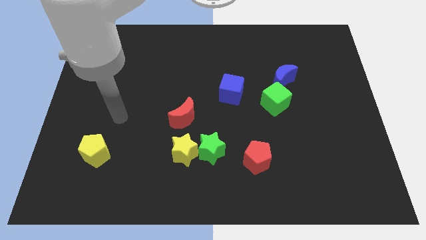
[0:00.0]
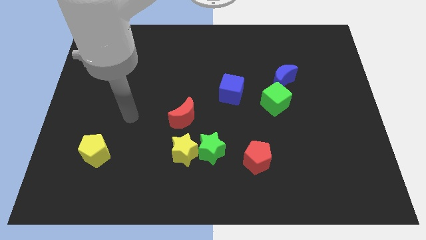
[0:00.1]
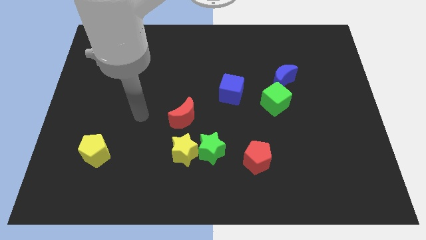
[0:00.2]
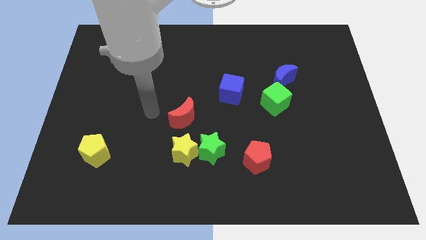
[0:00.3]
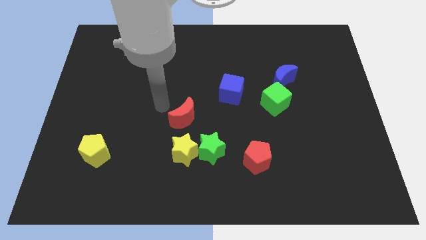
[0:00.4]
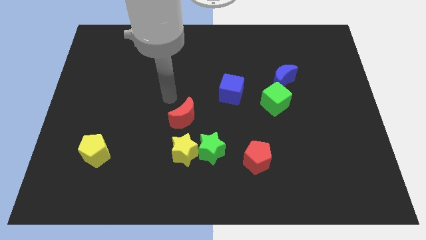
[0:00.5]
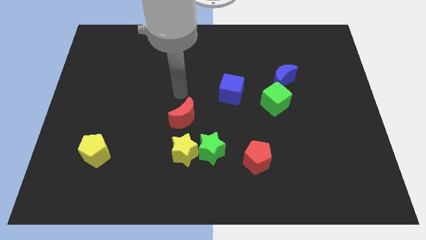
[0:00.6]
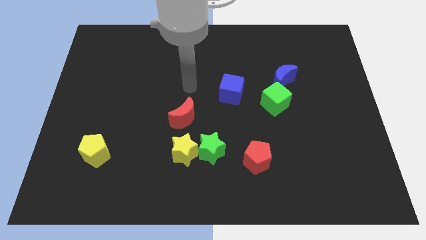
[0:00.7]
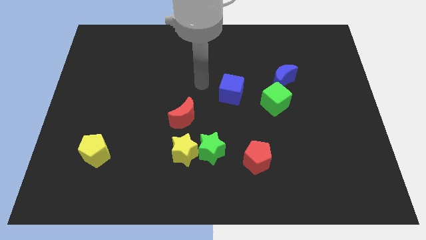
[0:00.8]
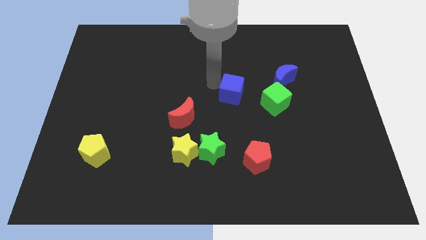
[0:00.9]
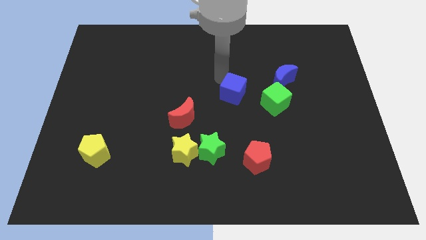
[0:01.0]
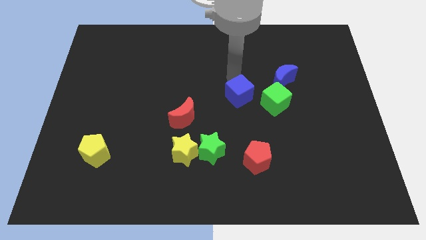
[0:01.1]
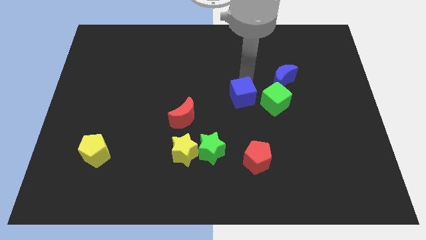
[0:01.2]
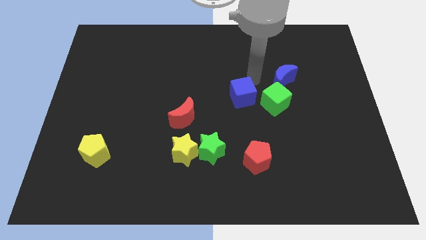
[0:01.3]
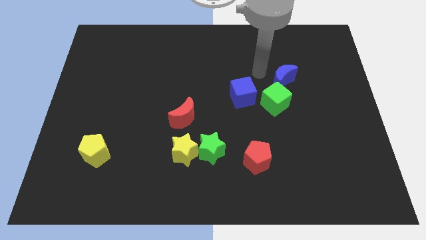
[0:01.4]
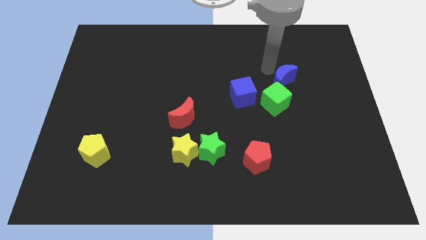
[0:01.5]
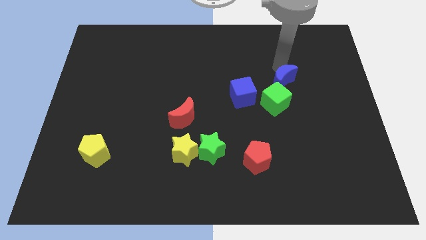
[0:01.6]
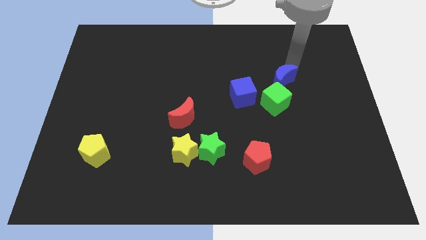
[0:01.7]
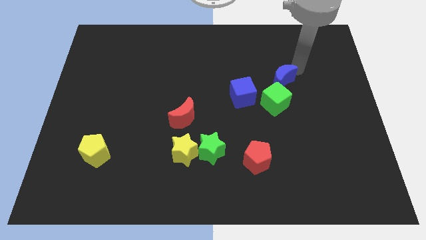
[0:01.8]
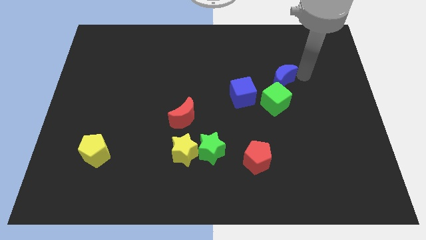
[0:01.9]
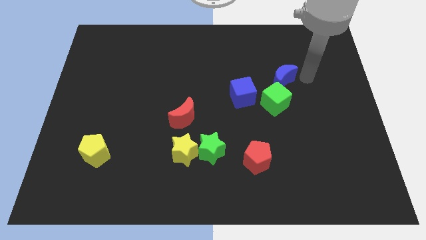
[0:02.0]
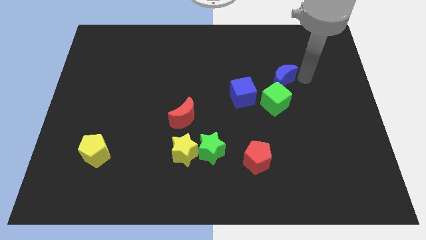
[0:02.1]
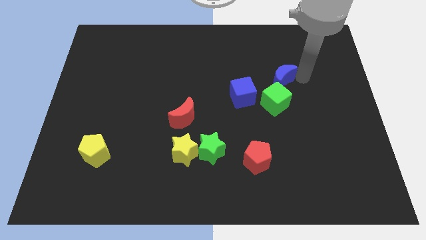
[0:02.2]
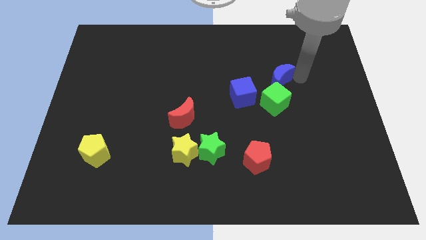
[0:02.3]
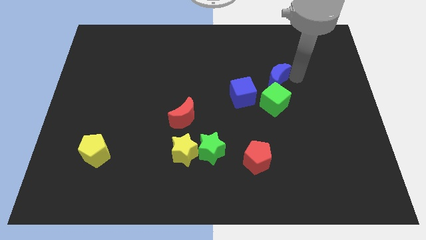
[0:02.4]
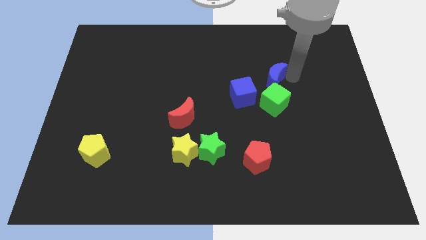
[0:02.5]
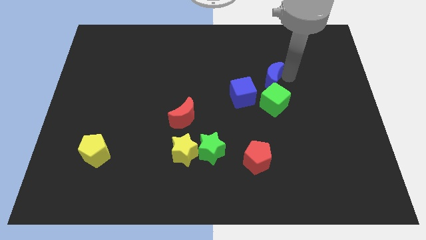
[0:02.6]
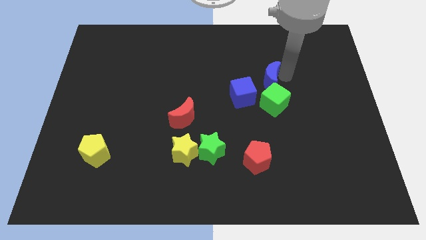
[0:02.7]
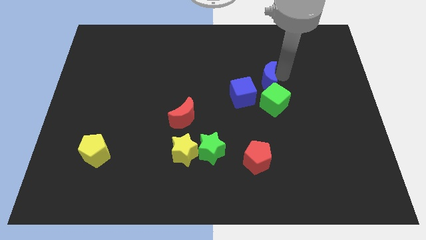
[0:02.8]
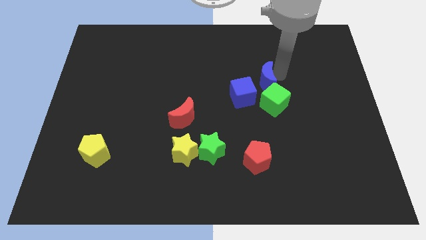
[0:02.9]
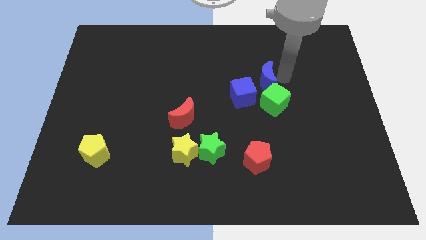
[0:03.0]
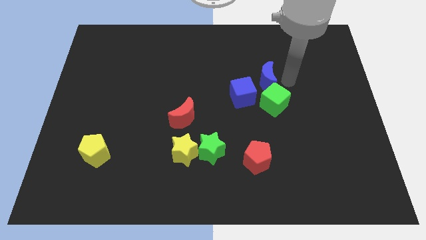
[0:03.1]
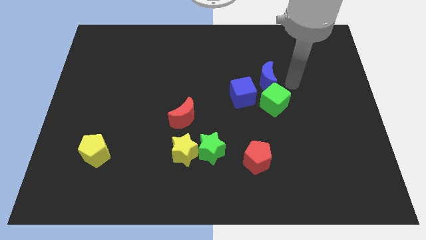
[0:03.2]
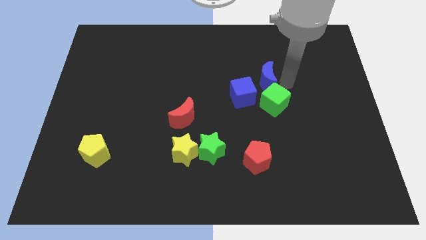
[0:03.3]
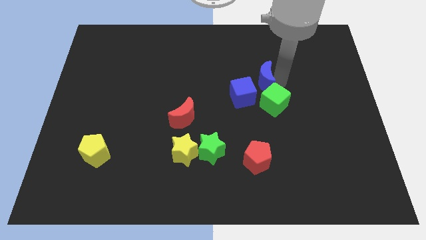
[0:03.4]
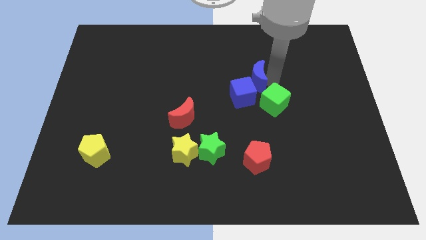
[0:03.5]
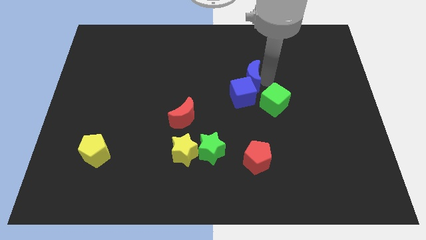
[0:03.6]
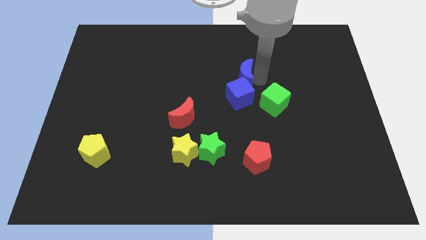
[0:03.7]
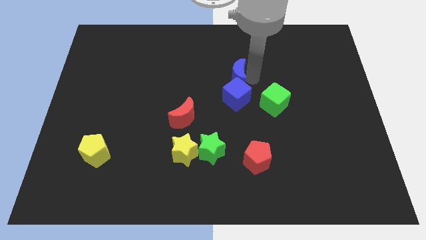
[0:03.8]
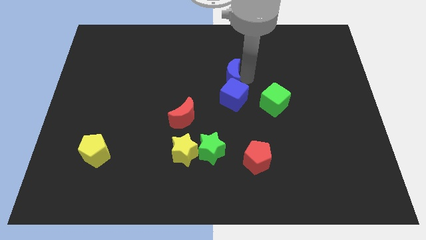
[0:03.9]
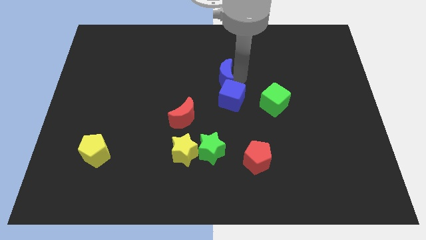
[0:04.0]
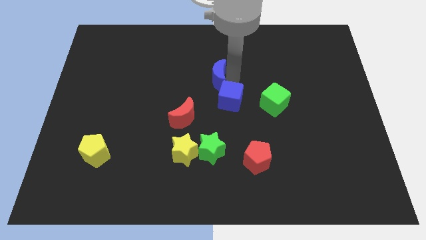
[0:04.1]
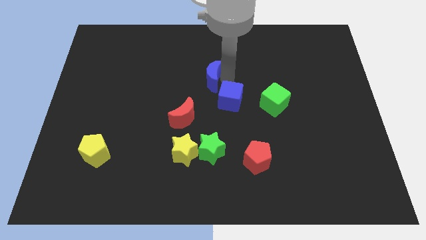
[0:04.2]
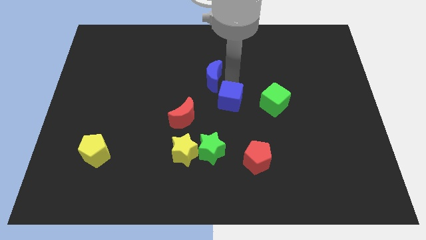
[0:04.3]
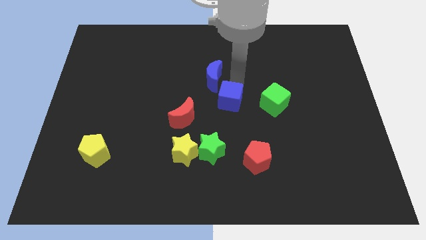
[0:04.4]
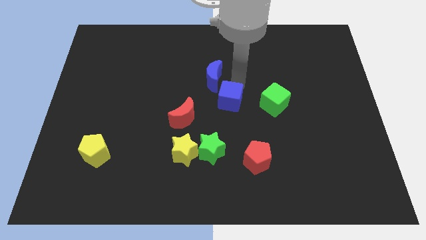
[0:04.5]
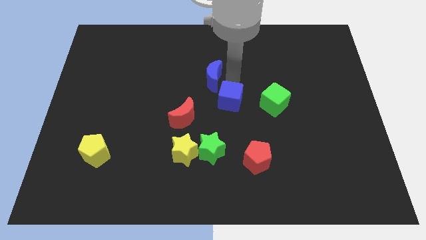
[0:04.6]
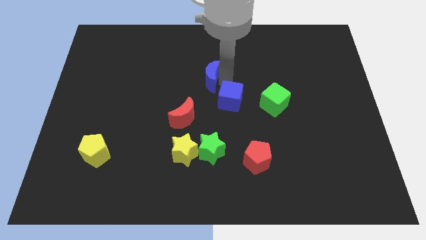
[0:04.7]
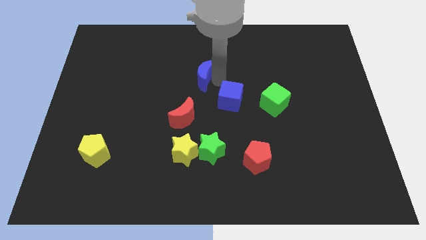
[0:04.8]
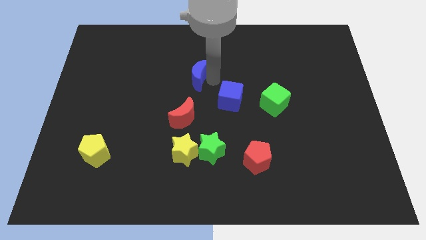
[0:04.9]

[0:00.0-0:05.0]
slide the blue moon left

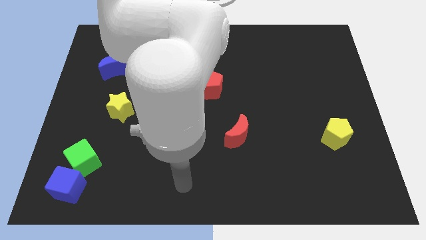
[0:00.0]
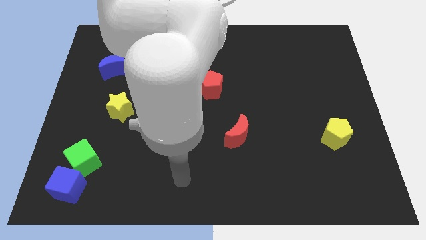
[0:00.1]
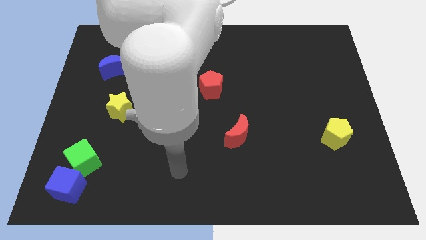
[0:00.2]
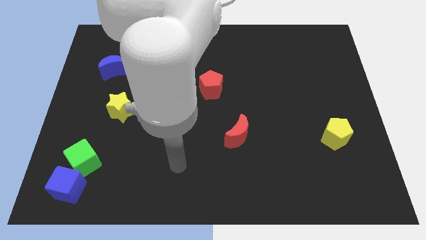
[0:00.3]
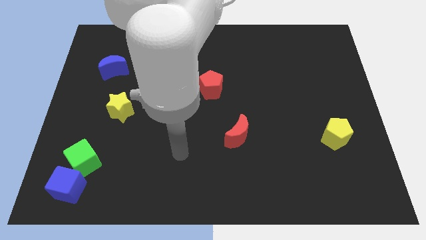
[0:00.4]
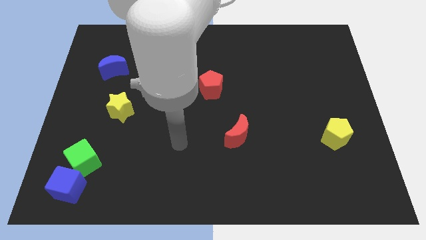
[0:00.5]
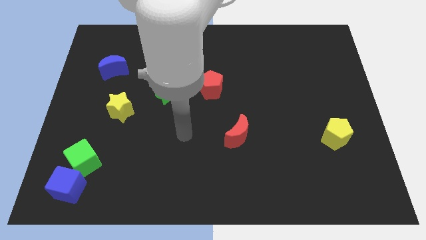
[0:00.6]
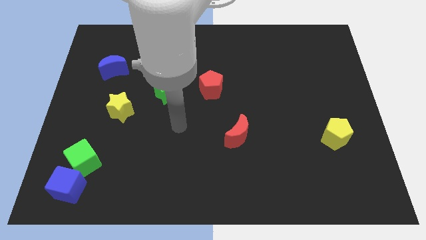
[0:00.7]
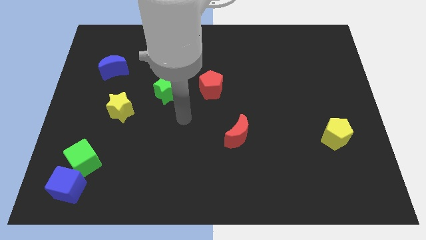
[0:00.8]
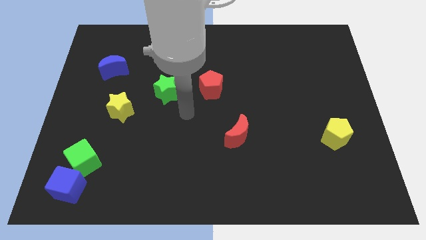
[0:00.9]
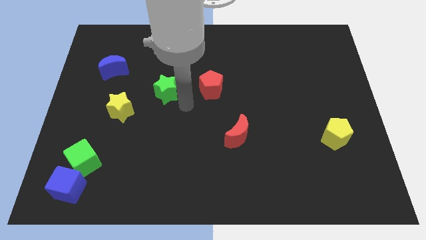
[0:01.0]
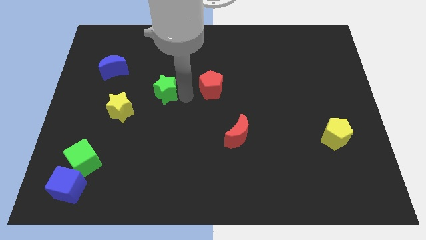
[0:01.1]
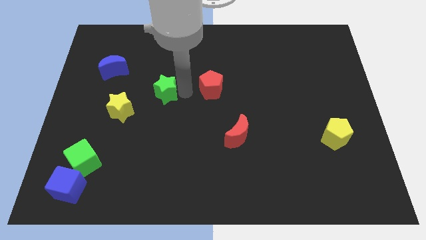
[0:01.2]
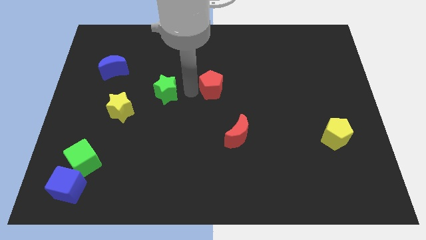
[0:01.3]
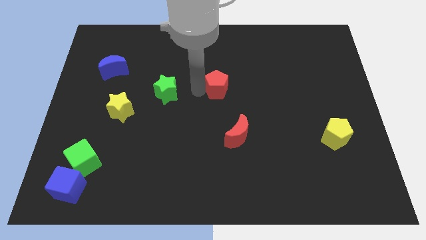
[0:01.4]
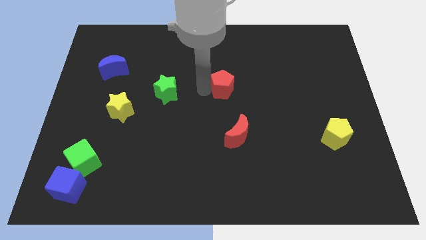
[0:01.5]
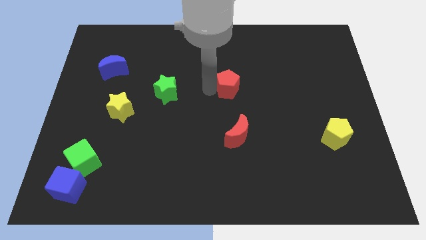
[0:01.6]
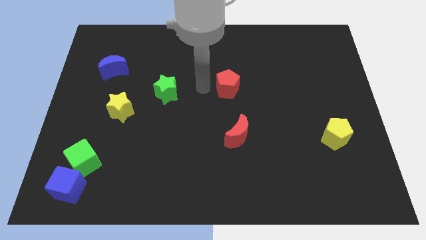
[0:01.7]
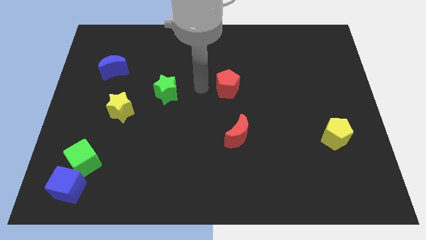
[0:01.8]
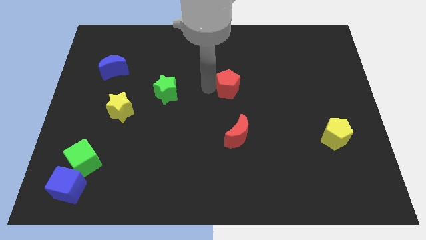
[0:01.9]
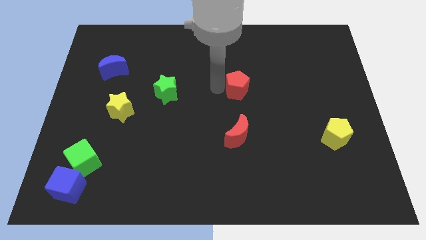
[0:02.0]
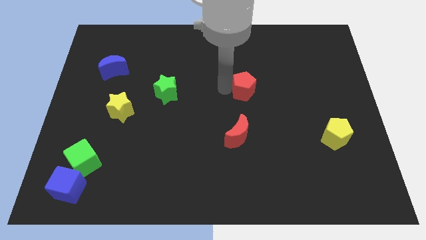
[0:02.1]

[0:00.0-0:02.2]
slide the red pentagon a little right

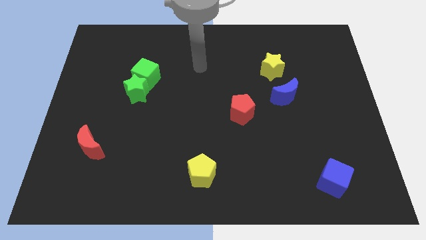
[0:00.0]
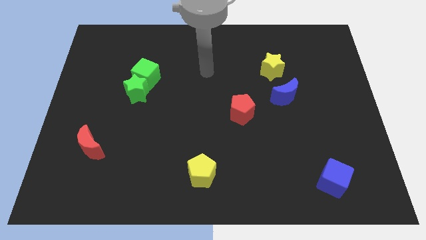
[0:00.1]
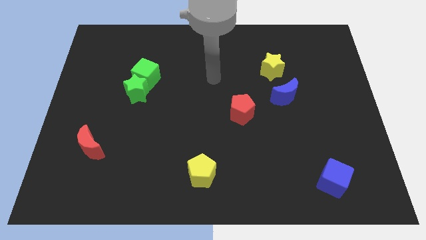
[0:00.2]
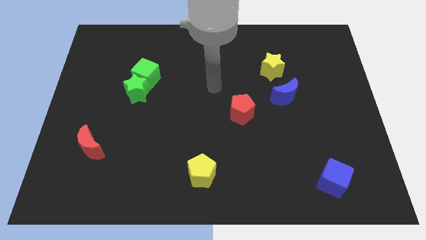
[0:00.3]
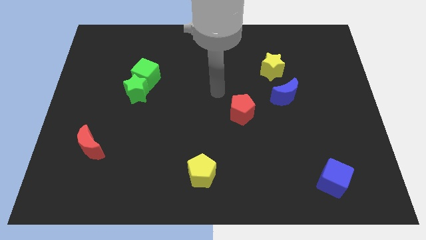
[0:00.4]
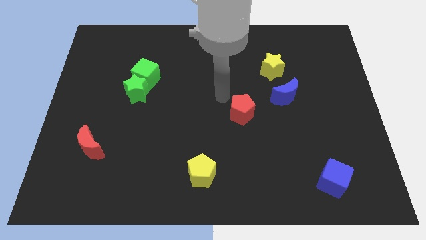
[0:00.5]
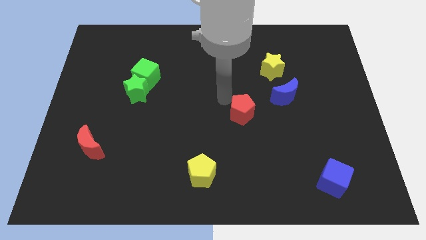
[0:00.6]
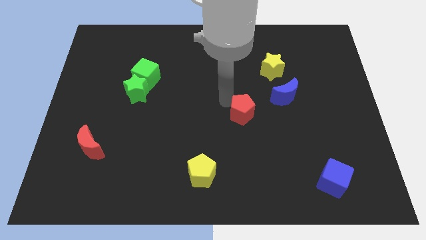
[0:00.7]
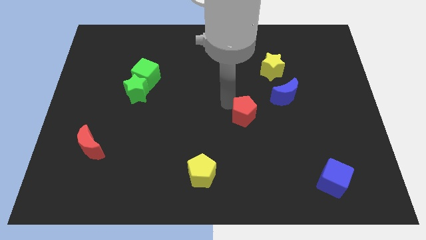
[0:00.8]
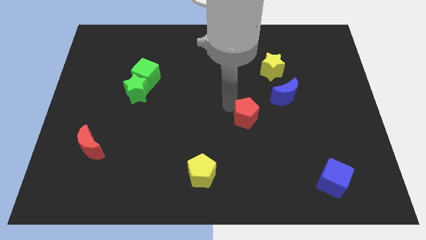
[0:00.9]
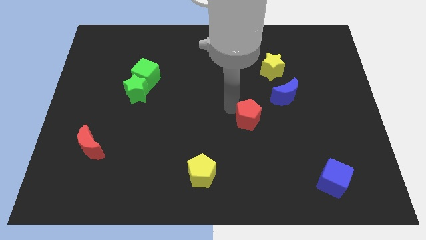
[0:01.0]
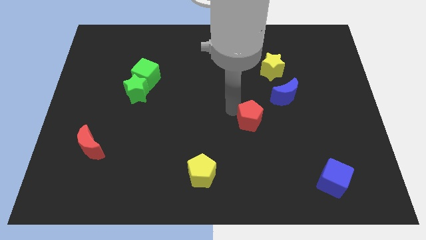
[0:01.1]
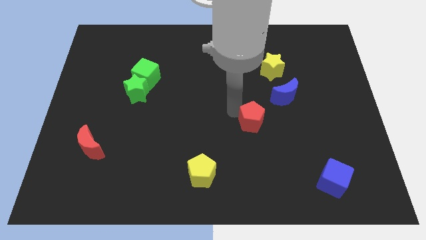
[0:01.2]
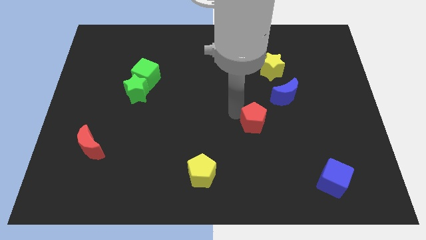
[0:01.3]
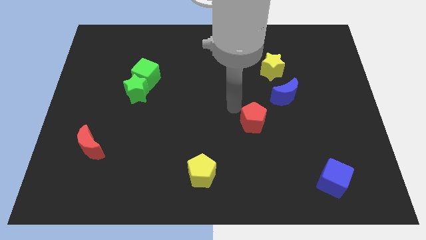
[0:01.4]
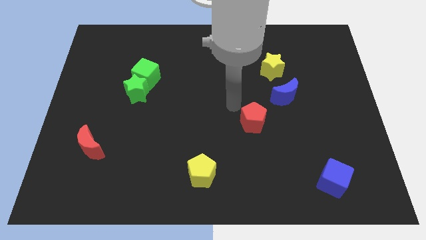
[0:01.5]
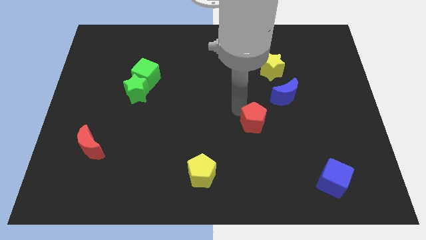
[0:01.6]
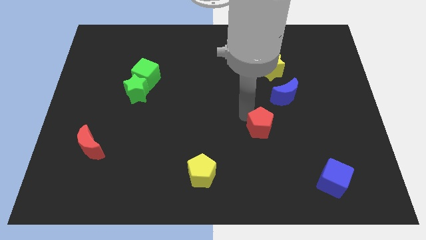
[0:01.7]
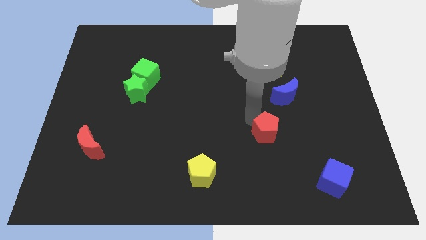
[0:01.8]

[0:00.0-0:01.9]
slightly move the red pentagon down and then right
